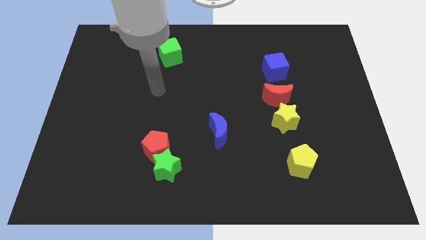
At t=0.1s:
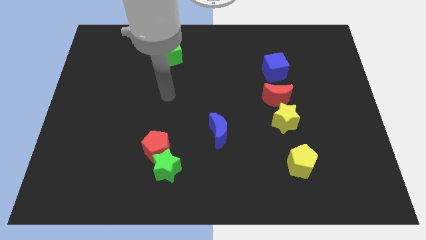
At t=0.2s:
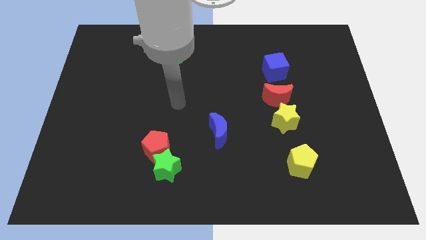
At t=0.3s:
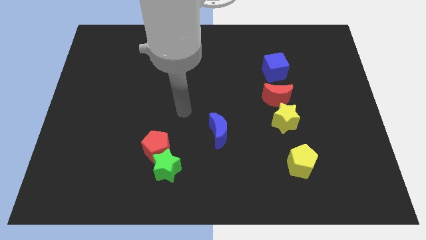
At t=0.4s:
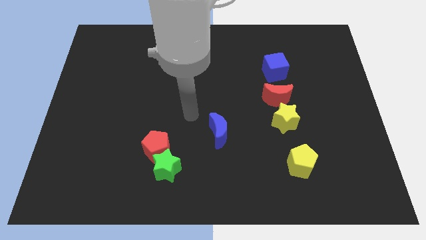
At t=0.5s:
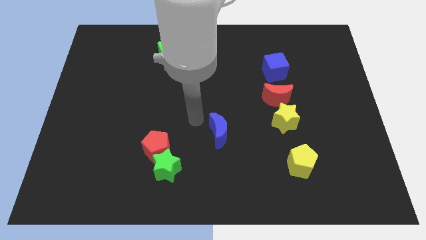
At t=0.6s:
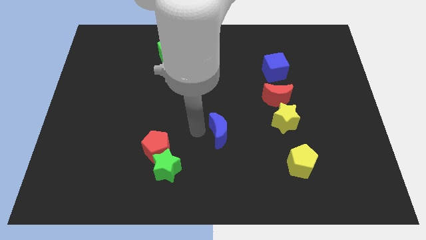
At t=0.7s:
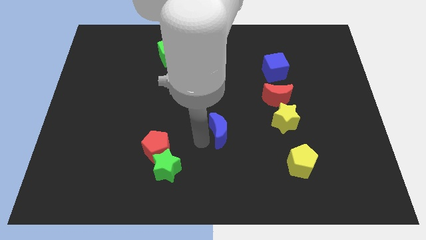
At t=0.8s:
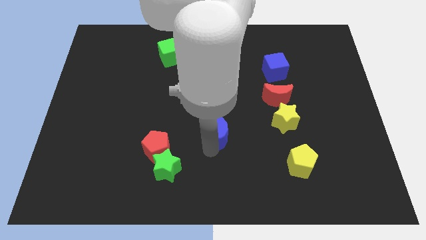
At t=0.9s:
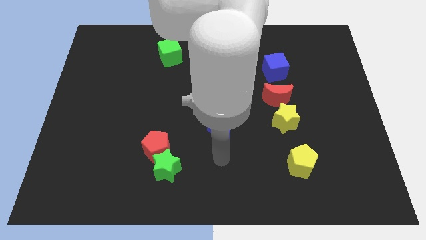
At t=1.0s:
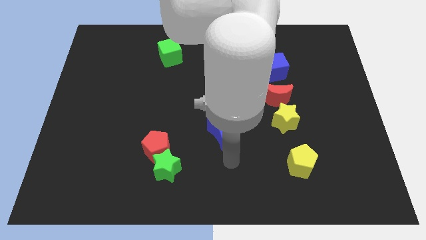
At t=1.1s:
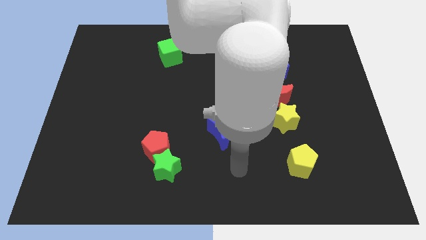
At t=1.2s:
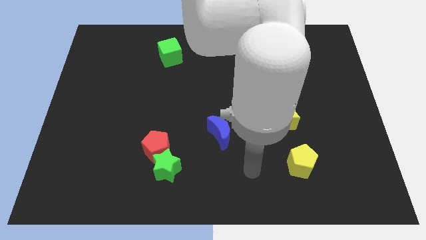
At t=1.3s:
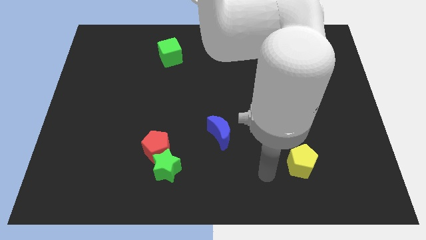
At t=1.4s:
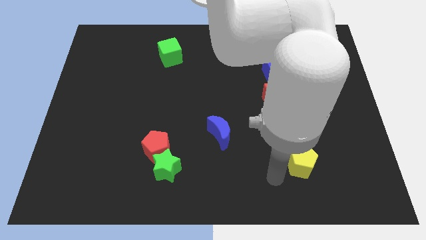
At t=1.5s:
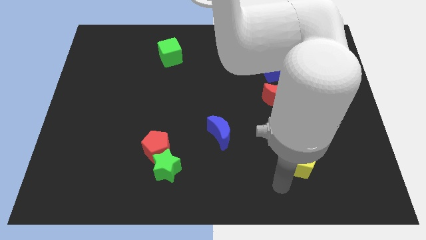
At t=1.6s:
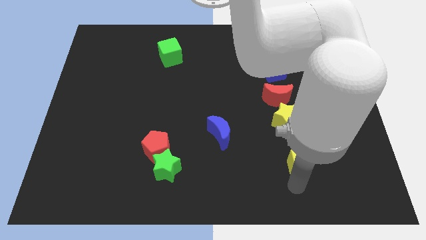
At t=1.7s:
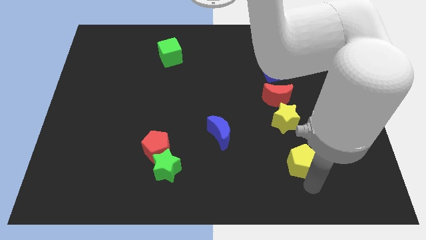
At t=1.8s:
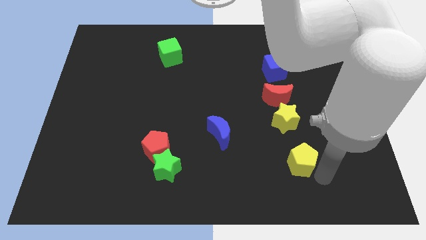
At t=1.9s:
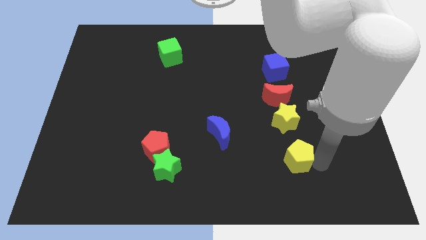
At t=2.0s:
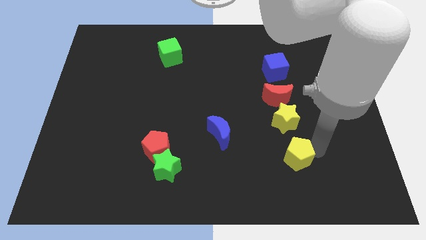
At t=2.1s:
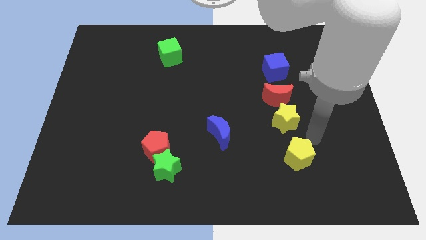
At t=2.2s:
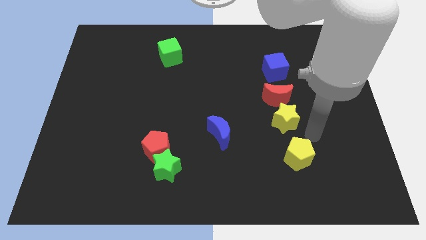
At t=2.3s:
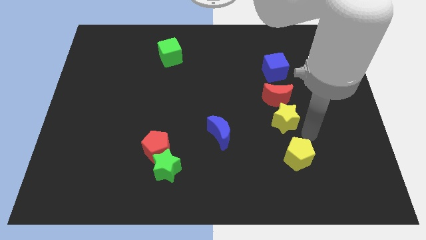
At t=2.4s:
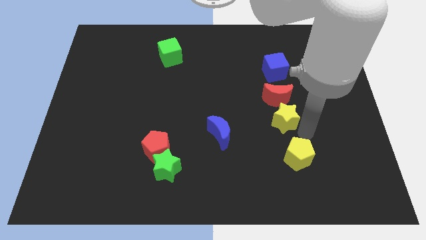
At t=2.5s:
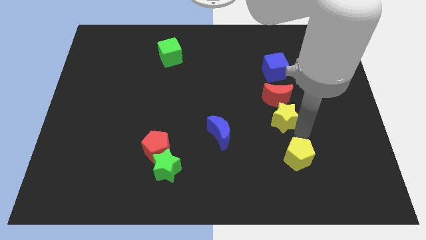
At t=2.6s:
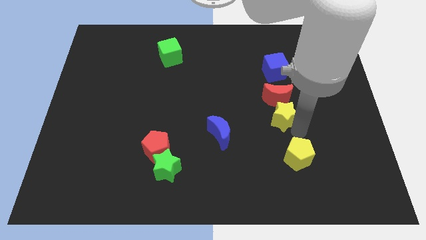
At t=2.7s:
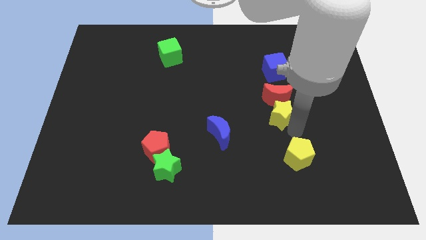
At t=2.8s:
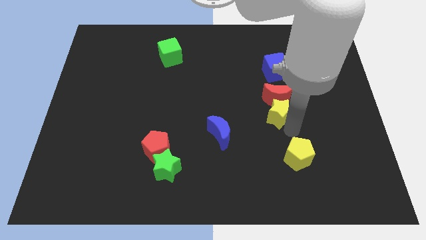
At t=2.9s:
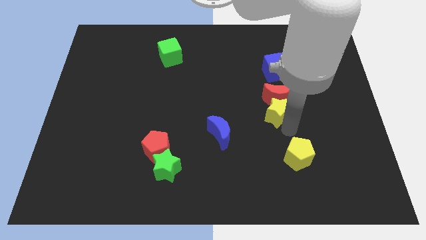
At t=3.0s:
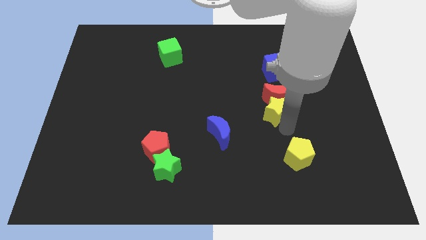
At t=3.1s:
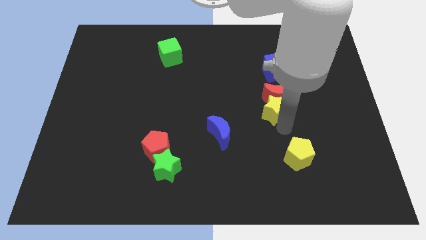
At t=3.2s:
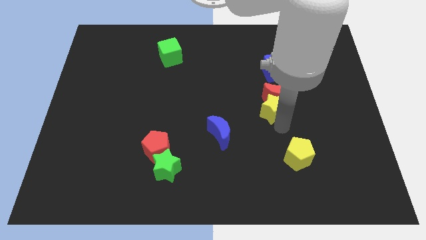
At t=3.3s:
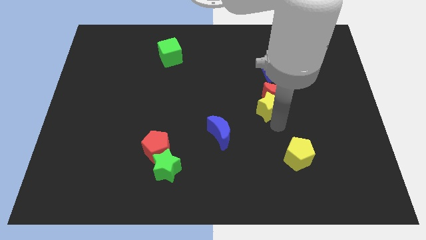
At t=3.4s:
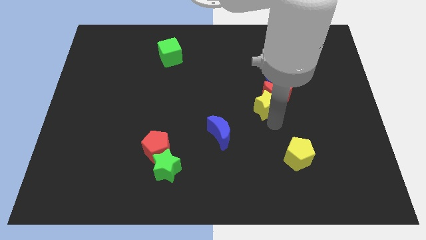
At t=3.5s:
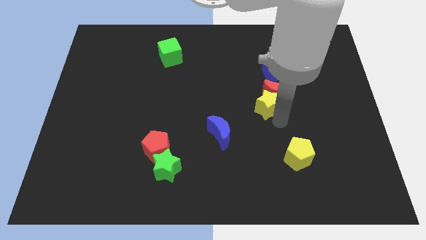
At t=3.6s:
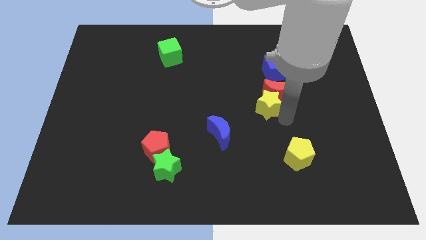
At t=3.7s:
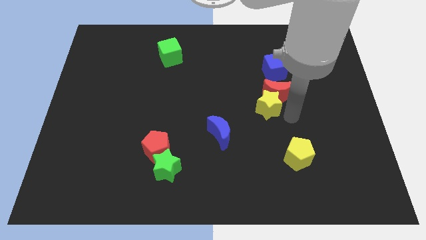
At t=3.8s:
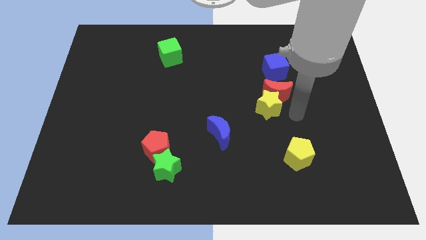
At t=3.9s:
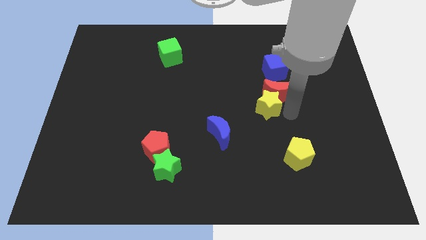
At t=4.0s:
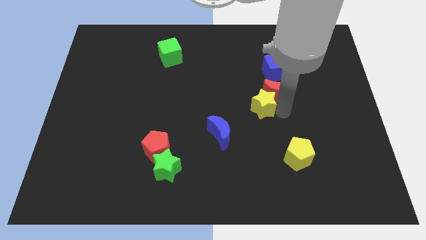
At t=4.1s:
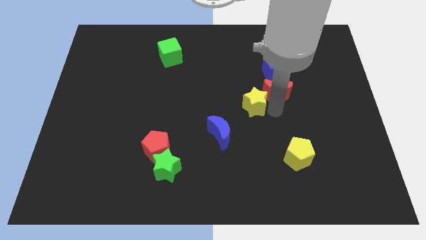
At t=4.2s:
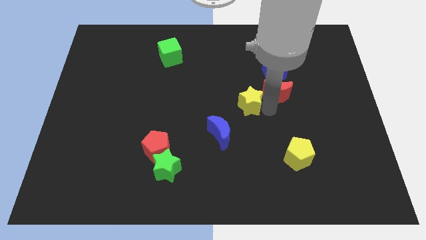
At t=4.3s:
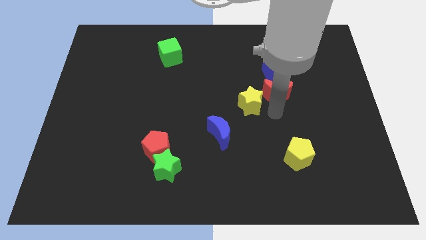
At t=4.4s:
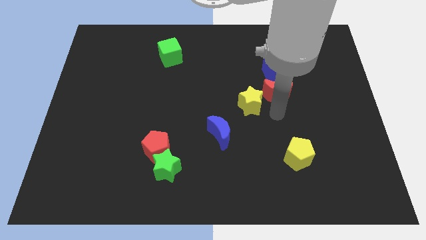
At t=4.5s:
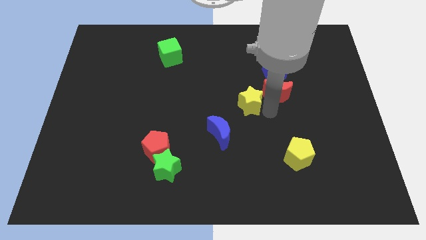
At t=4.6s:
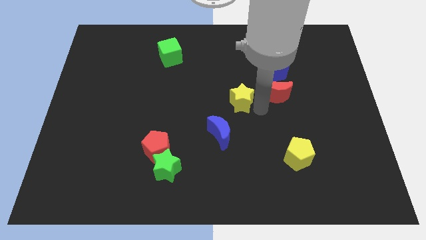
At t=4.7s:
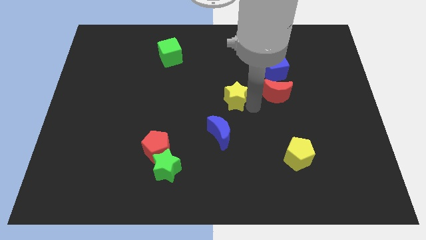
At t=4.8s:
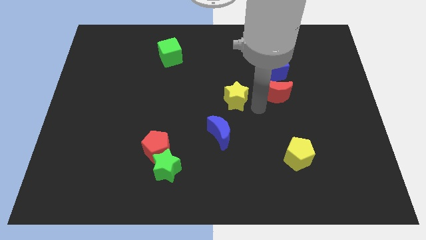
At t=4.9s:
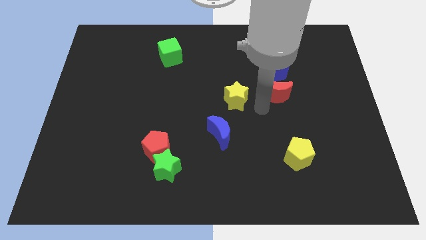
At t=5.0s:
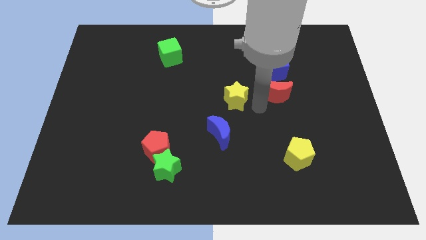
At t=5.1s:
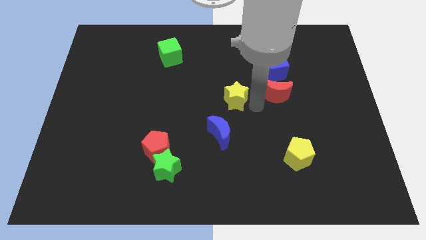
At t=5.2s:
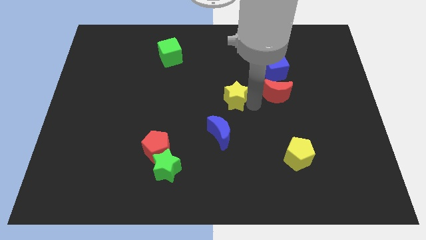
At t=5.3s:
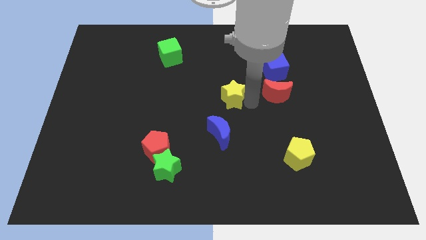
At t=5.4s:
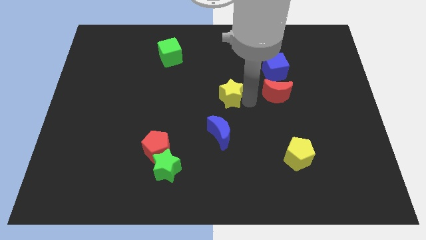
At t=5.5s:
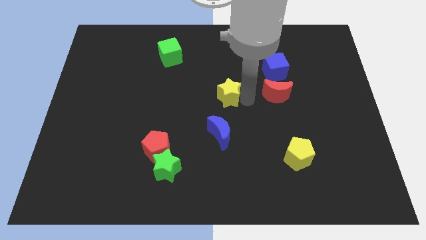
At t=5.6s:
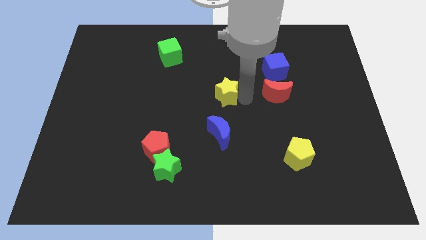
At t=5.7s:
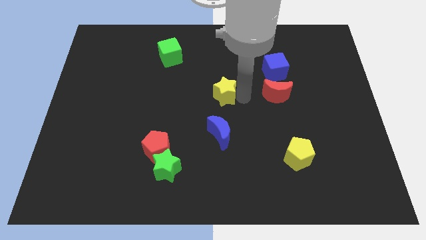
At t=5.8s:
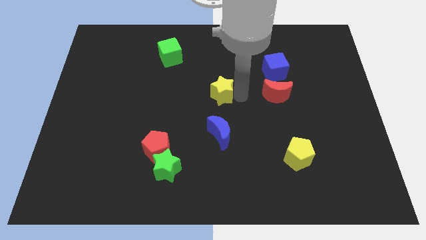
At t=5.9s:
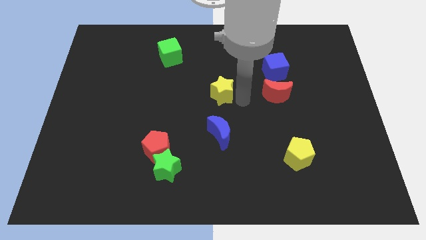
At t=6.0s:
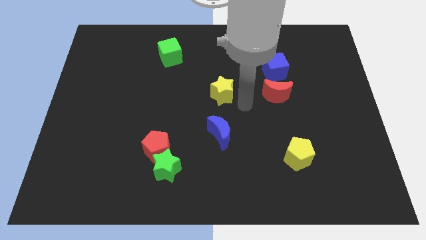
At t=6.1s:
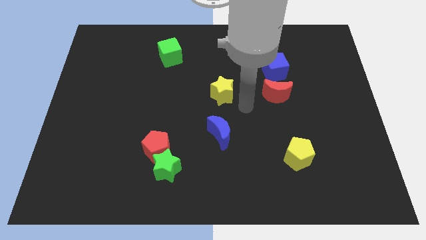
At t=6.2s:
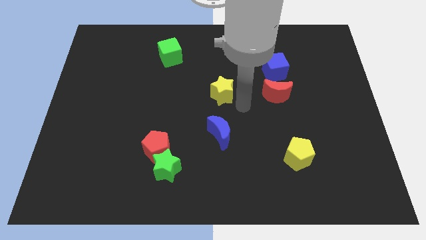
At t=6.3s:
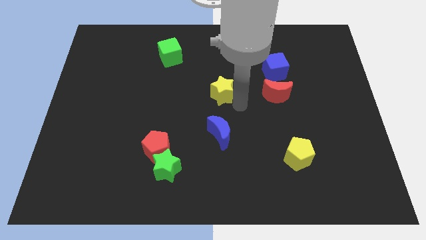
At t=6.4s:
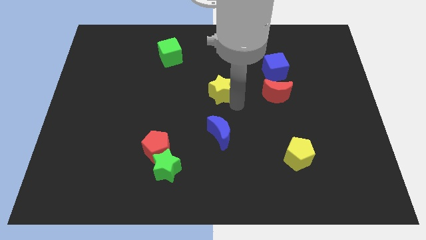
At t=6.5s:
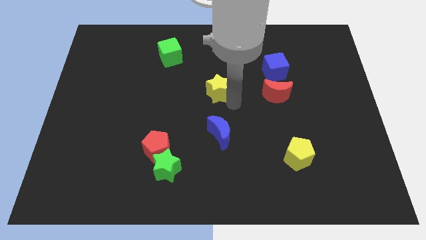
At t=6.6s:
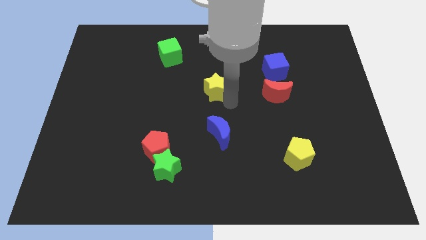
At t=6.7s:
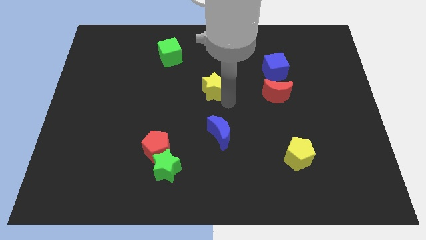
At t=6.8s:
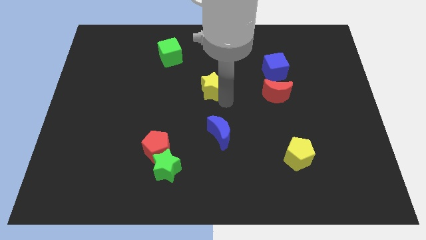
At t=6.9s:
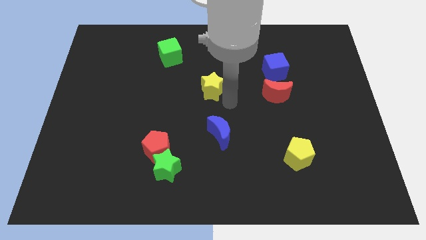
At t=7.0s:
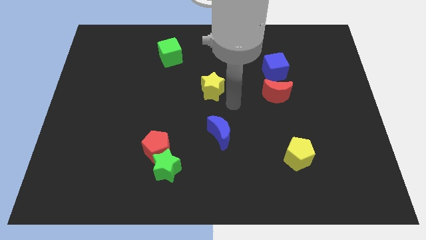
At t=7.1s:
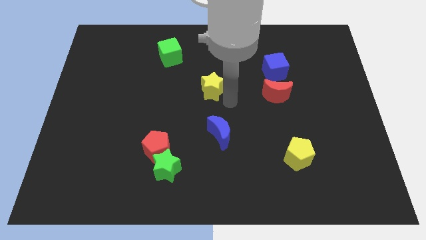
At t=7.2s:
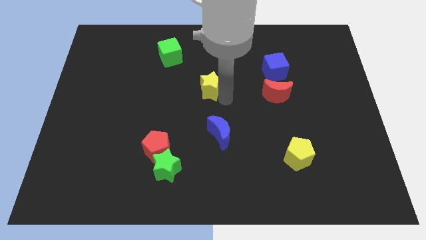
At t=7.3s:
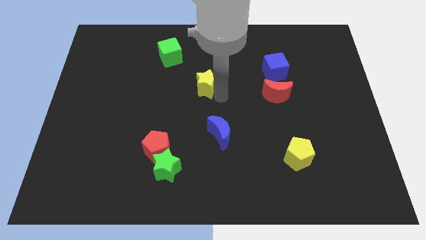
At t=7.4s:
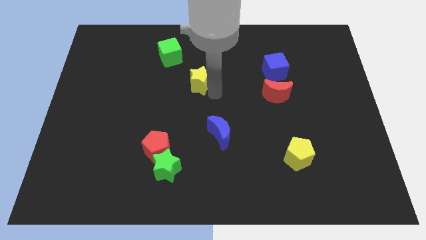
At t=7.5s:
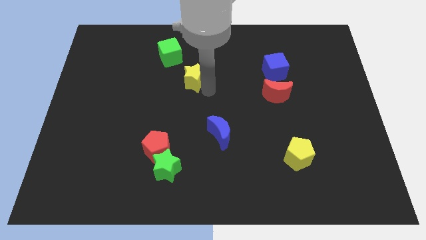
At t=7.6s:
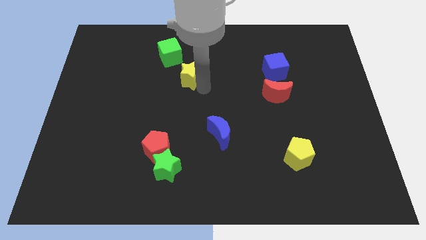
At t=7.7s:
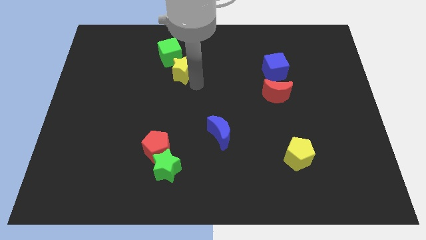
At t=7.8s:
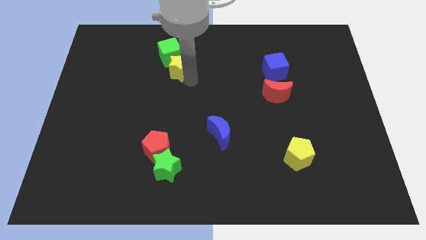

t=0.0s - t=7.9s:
push the yellow star to the green cube
